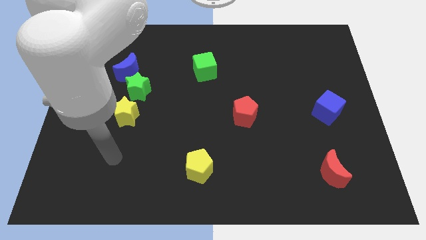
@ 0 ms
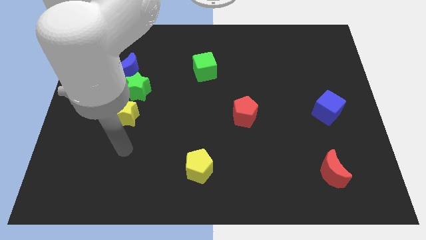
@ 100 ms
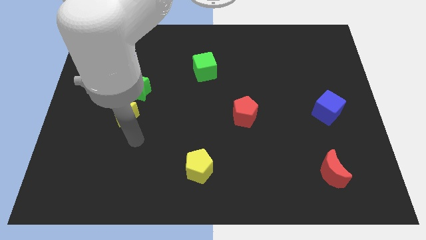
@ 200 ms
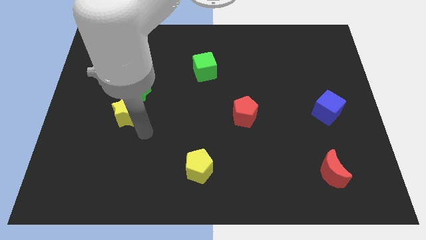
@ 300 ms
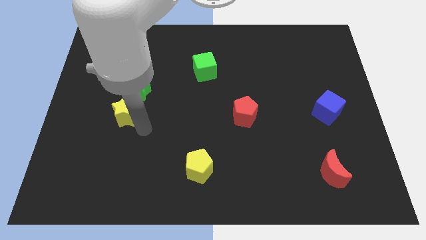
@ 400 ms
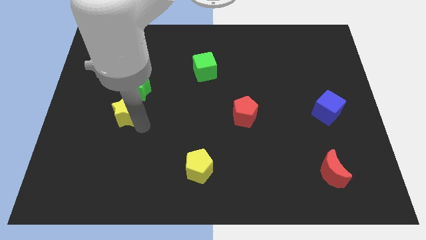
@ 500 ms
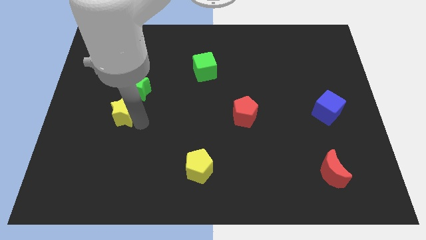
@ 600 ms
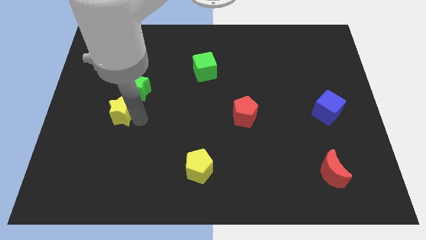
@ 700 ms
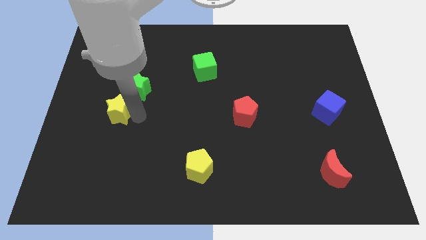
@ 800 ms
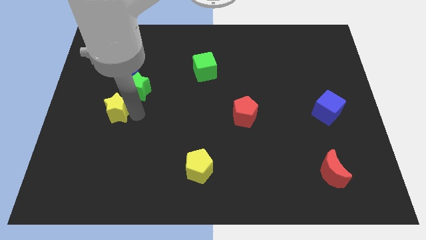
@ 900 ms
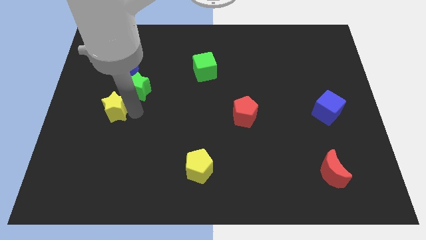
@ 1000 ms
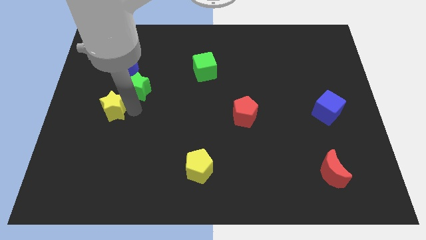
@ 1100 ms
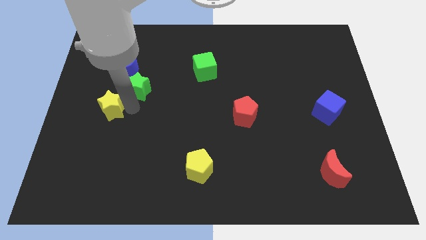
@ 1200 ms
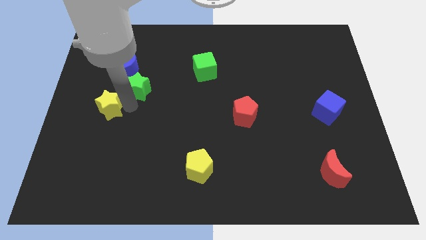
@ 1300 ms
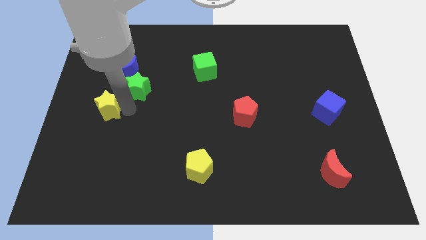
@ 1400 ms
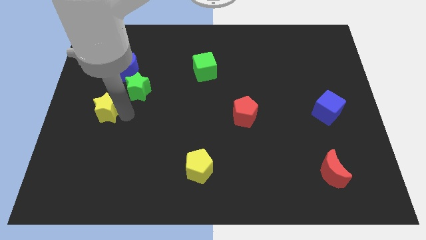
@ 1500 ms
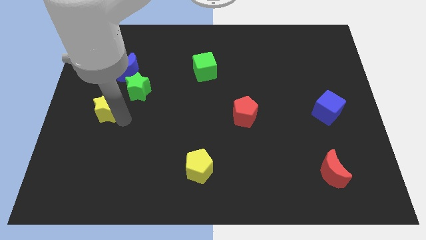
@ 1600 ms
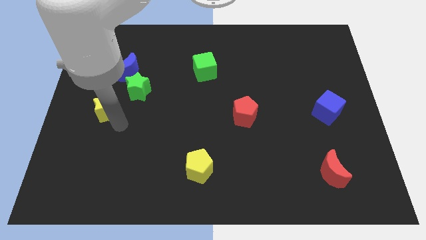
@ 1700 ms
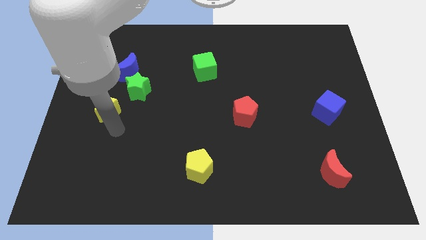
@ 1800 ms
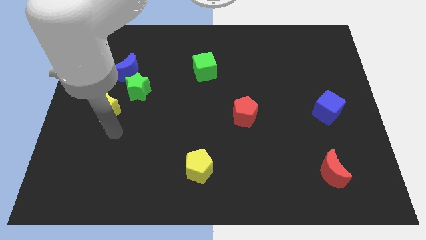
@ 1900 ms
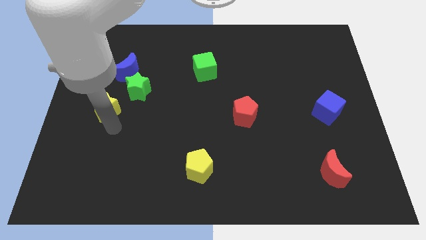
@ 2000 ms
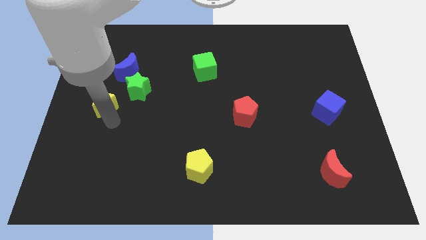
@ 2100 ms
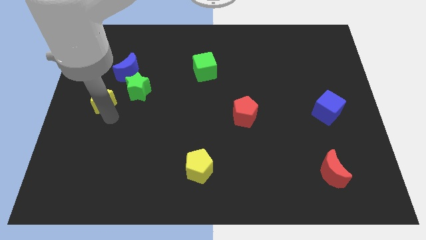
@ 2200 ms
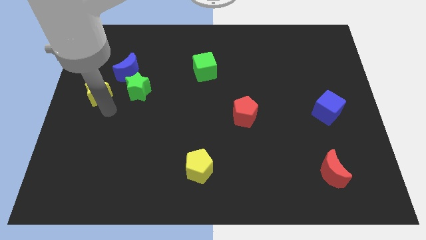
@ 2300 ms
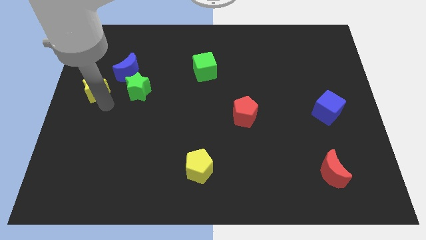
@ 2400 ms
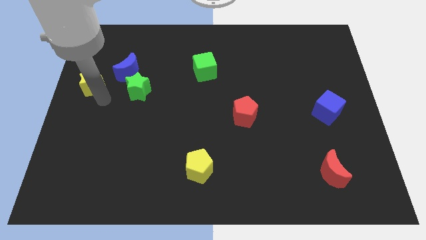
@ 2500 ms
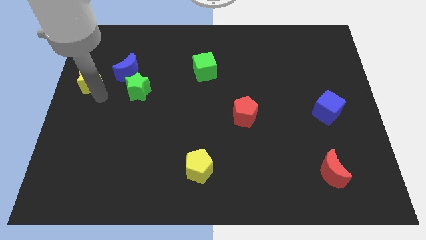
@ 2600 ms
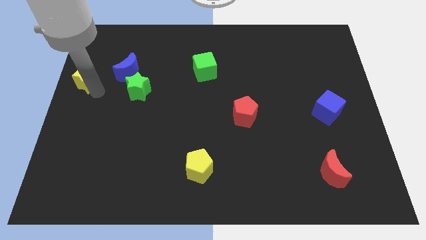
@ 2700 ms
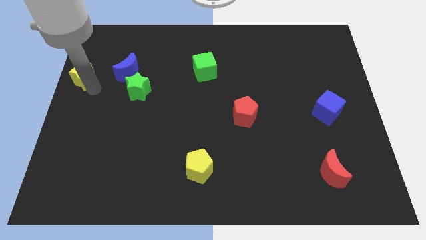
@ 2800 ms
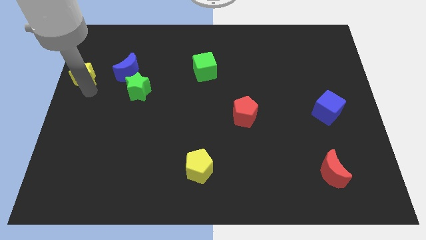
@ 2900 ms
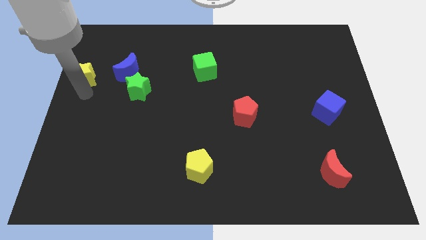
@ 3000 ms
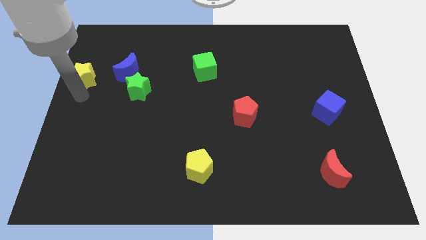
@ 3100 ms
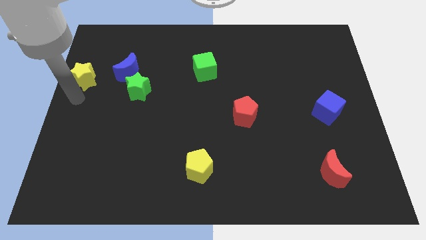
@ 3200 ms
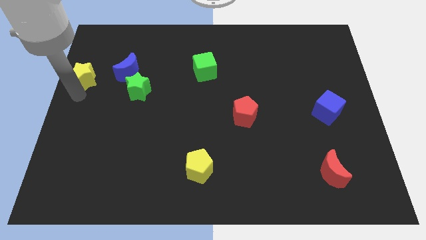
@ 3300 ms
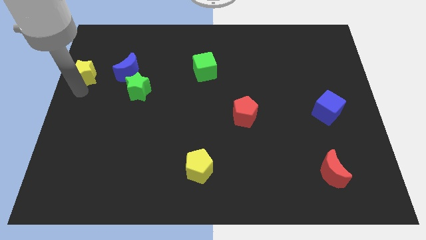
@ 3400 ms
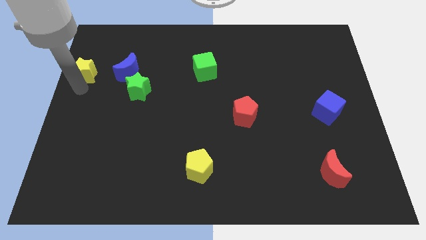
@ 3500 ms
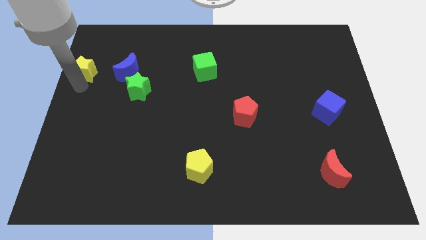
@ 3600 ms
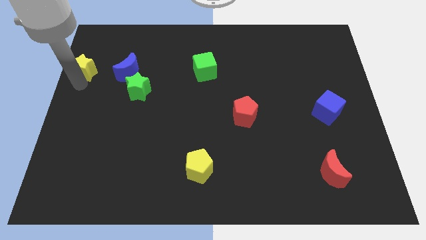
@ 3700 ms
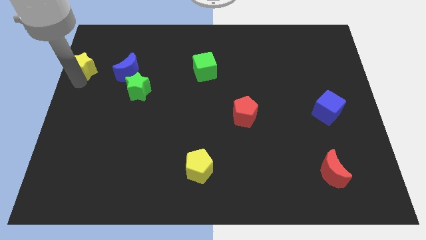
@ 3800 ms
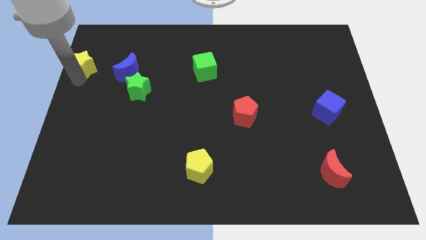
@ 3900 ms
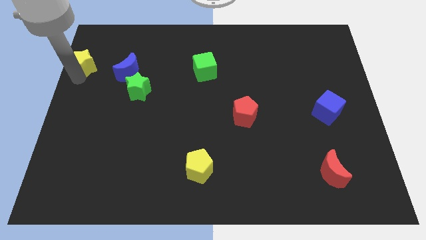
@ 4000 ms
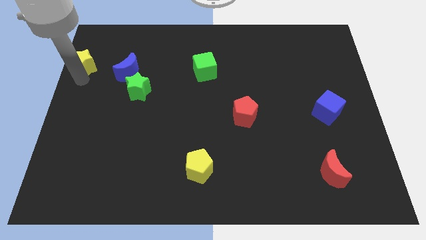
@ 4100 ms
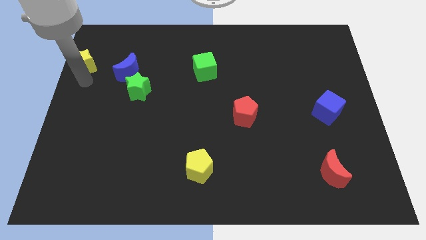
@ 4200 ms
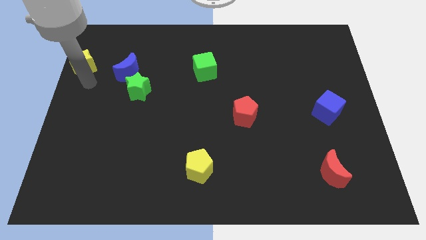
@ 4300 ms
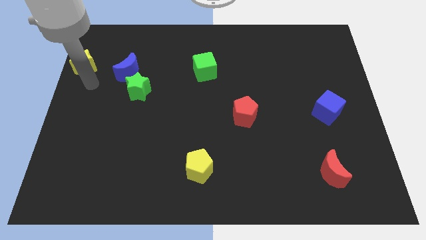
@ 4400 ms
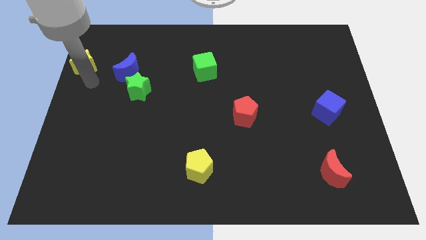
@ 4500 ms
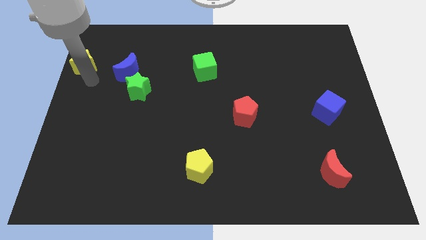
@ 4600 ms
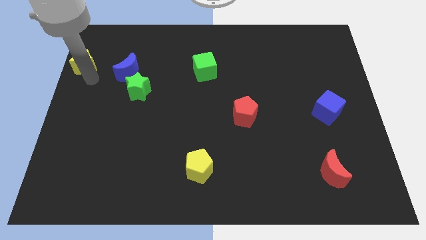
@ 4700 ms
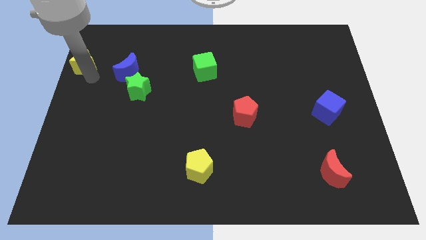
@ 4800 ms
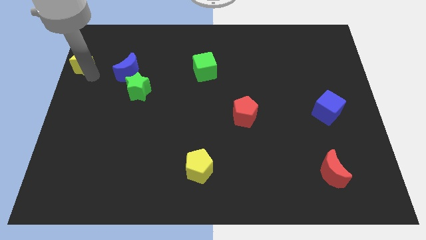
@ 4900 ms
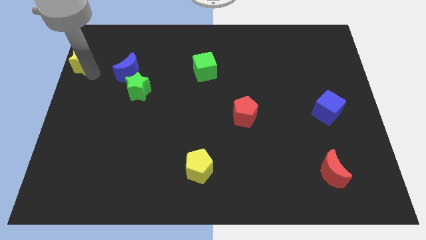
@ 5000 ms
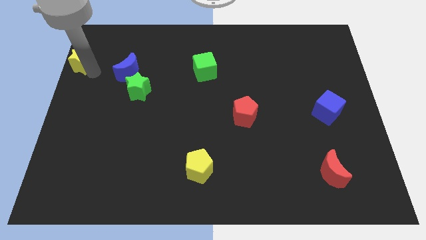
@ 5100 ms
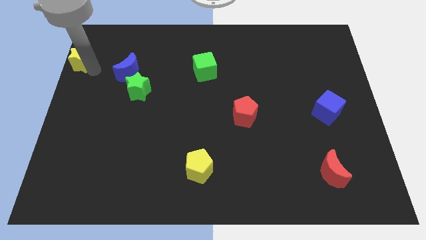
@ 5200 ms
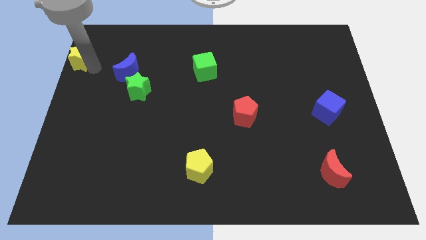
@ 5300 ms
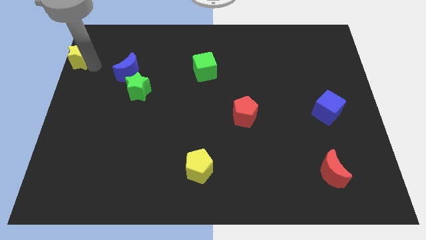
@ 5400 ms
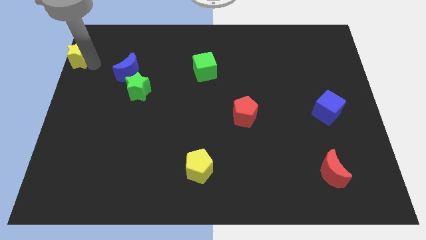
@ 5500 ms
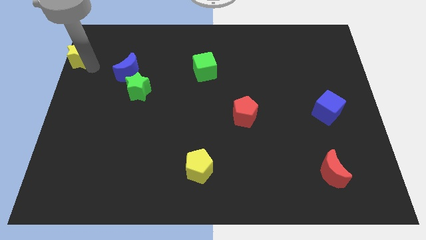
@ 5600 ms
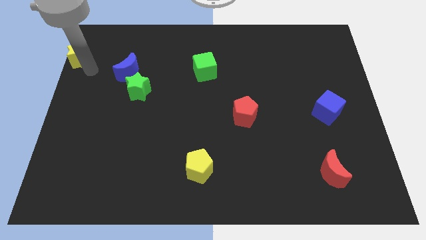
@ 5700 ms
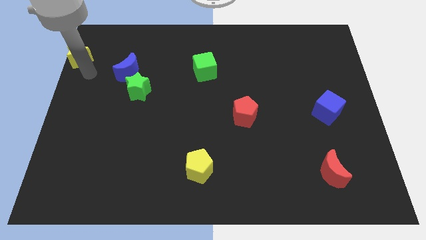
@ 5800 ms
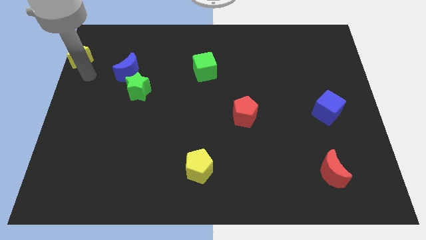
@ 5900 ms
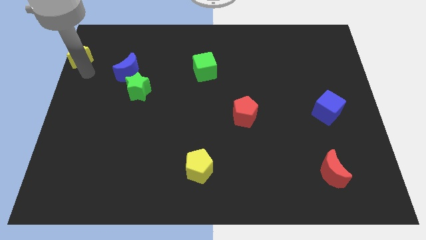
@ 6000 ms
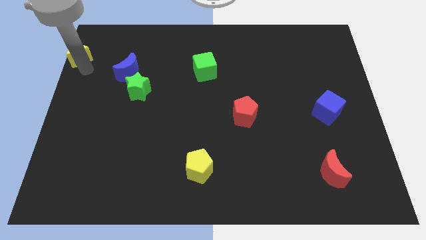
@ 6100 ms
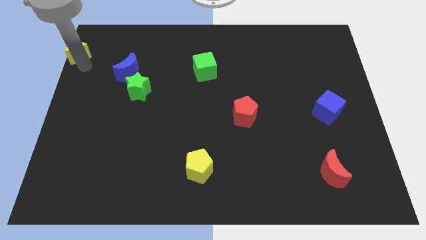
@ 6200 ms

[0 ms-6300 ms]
move the yellow star to the top left of the board
